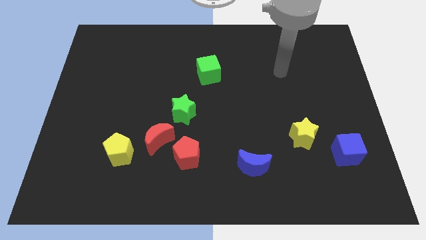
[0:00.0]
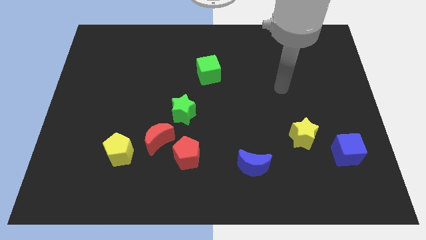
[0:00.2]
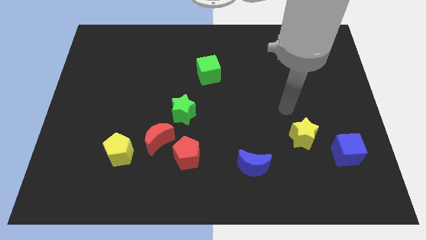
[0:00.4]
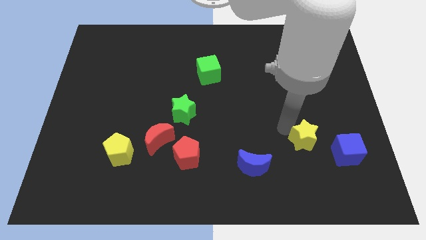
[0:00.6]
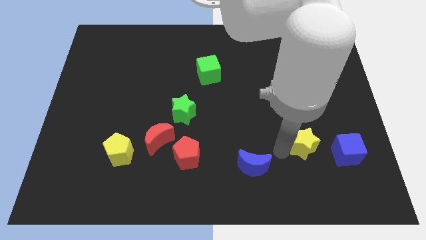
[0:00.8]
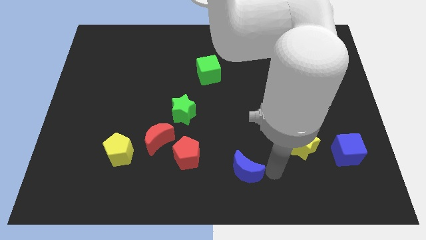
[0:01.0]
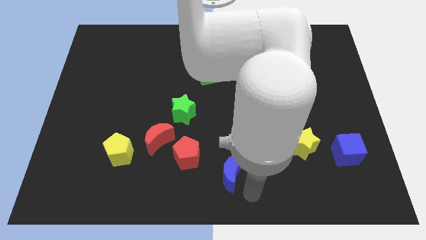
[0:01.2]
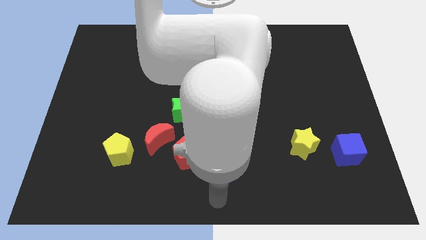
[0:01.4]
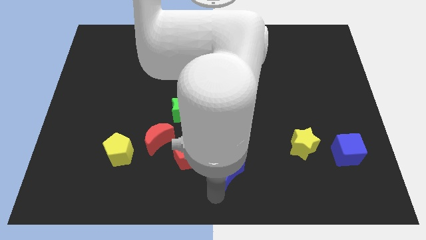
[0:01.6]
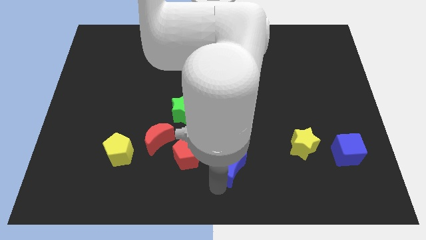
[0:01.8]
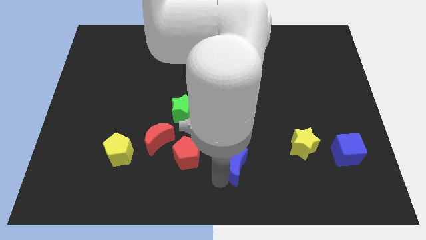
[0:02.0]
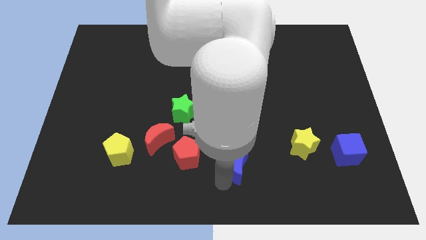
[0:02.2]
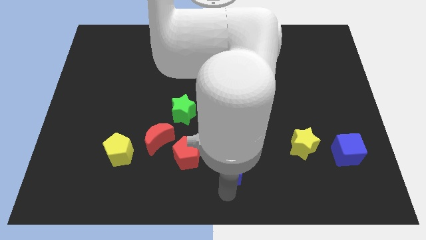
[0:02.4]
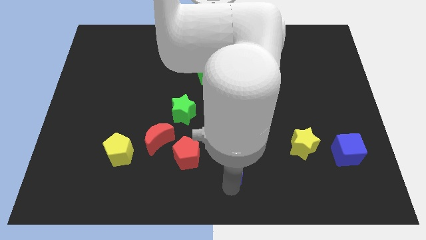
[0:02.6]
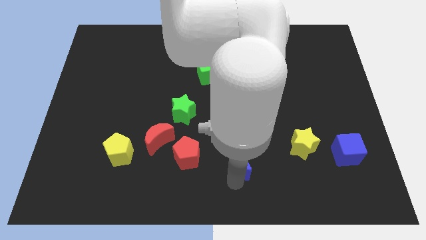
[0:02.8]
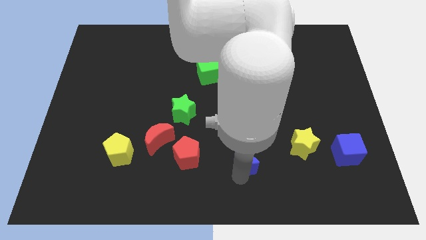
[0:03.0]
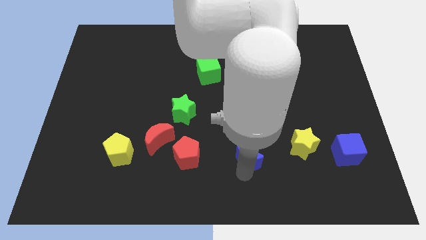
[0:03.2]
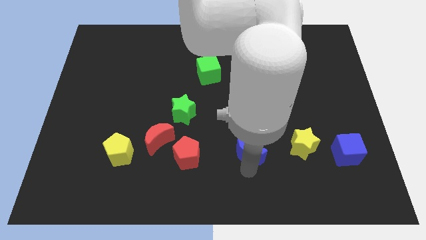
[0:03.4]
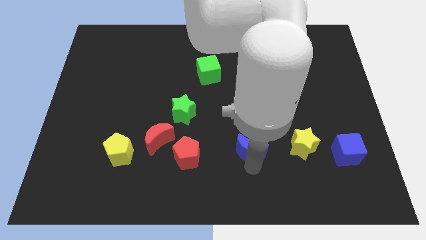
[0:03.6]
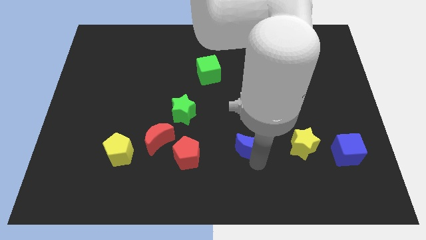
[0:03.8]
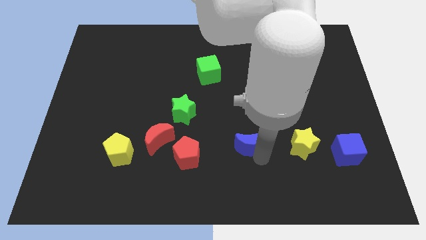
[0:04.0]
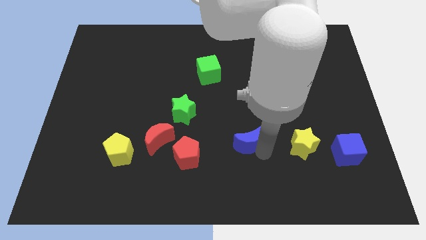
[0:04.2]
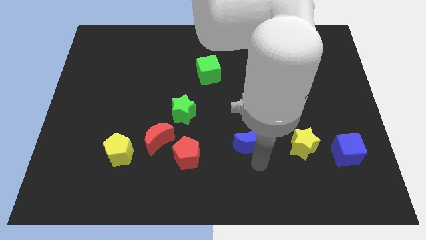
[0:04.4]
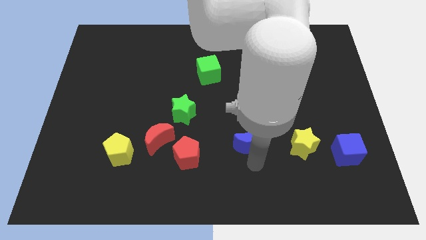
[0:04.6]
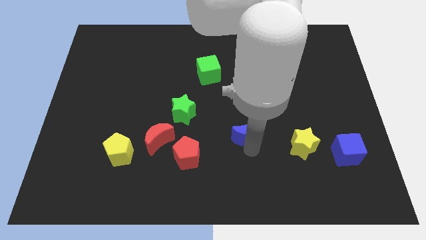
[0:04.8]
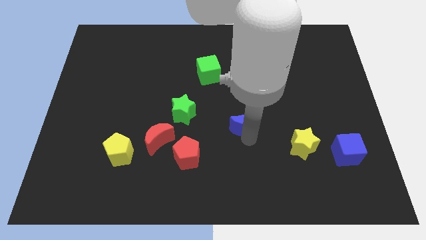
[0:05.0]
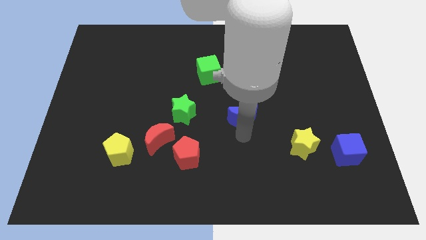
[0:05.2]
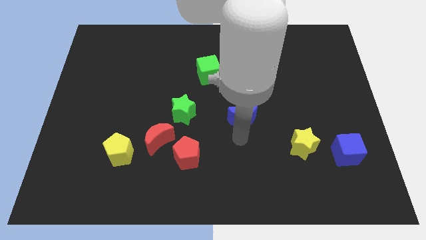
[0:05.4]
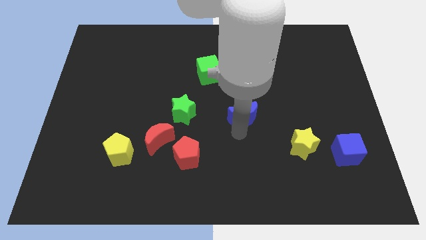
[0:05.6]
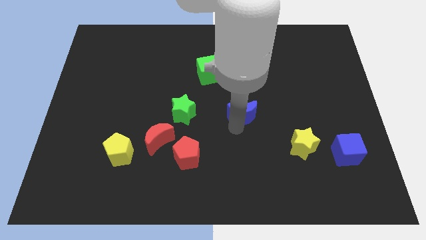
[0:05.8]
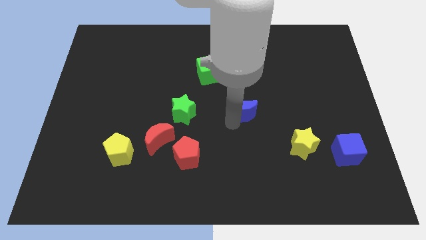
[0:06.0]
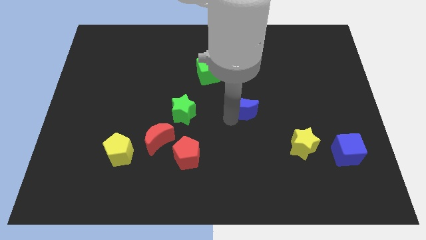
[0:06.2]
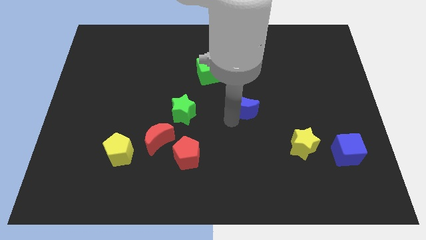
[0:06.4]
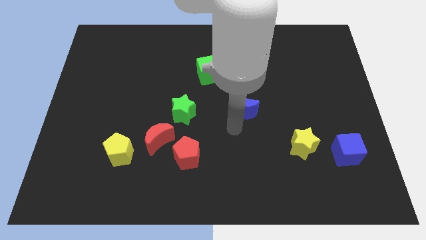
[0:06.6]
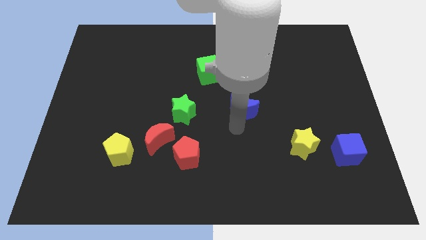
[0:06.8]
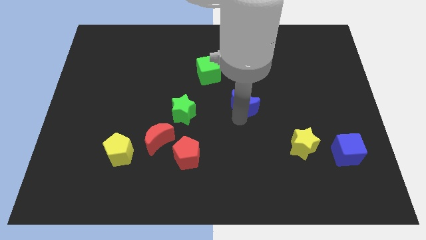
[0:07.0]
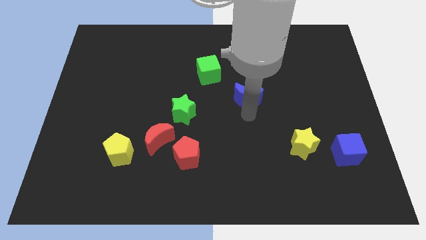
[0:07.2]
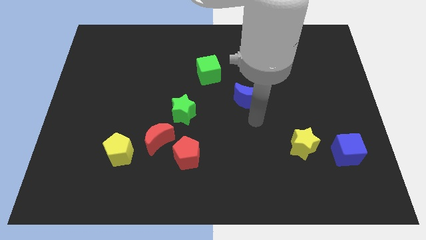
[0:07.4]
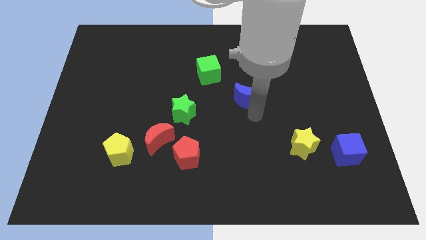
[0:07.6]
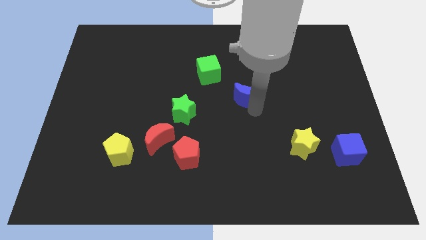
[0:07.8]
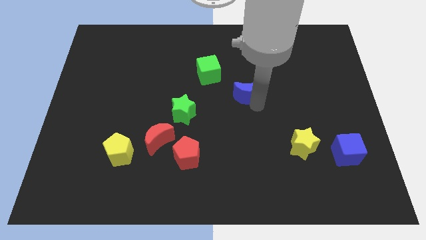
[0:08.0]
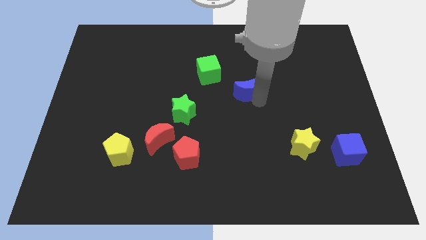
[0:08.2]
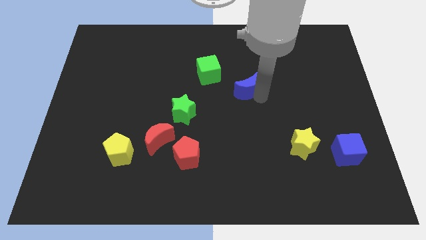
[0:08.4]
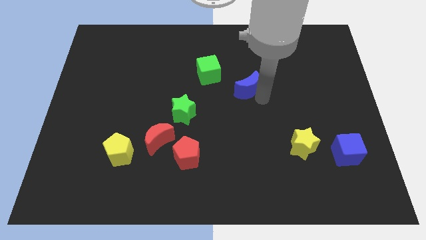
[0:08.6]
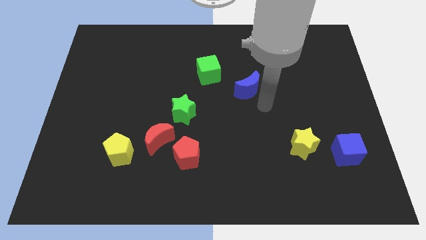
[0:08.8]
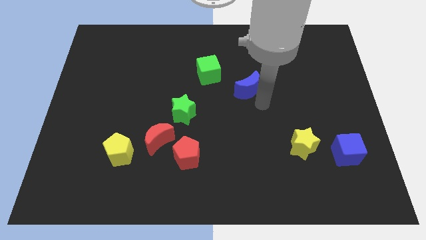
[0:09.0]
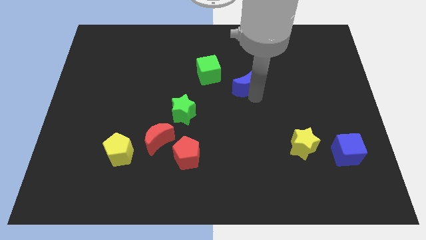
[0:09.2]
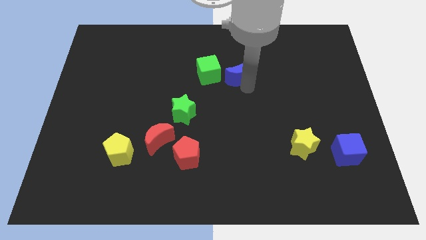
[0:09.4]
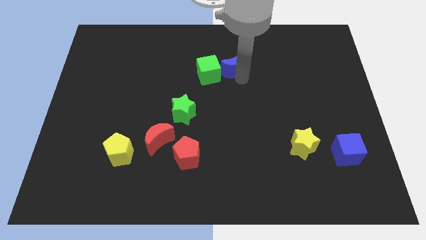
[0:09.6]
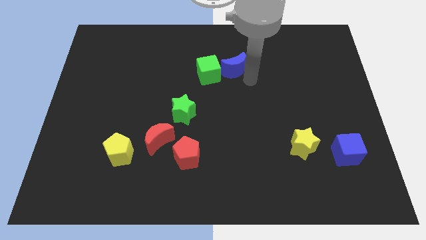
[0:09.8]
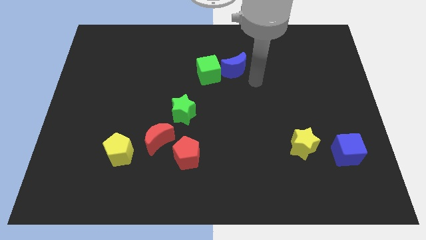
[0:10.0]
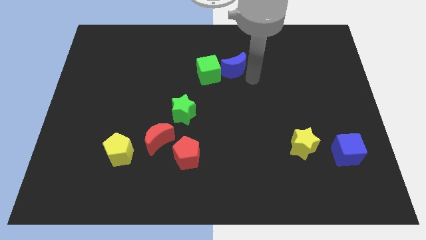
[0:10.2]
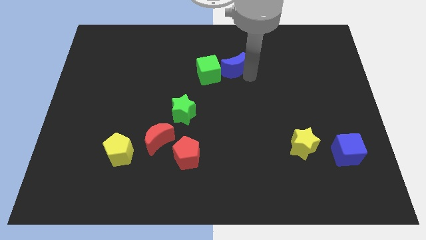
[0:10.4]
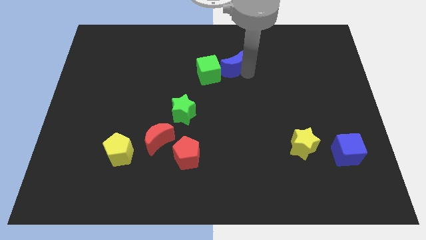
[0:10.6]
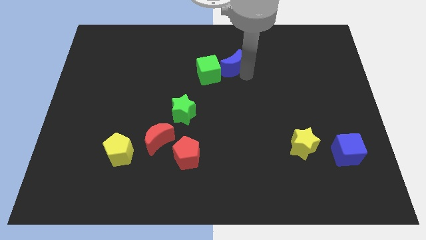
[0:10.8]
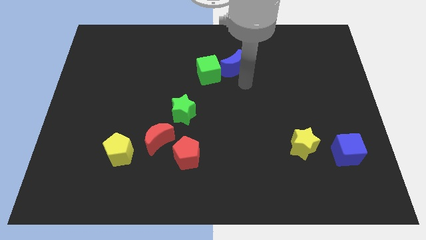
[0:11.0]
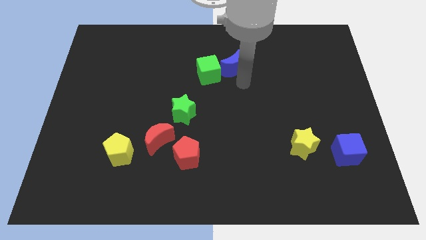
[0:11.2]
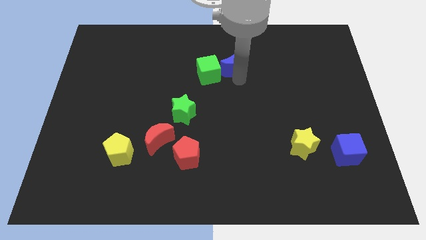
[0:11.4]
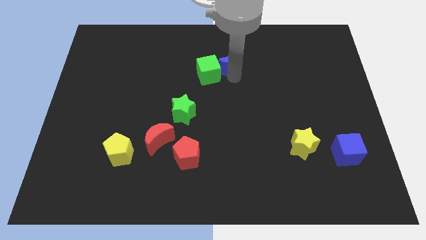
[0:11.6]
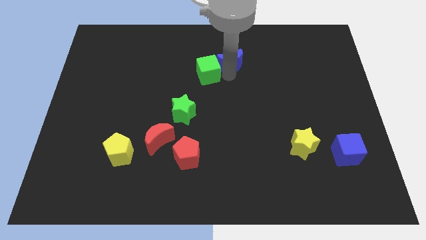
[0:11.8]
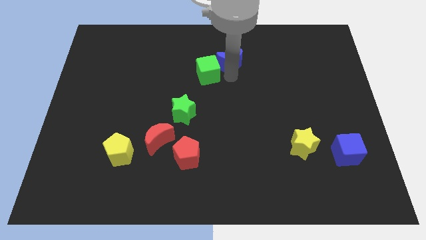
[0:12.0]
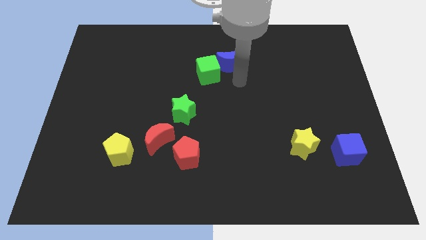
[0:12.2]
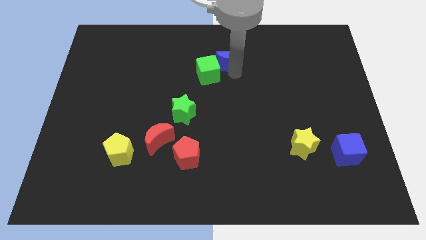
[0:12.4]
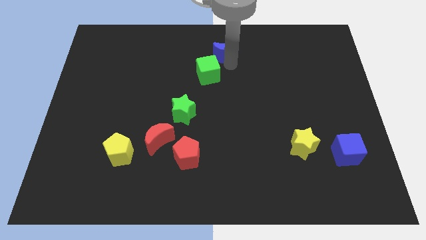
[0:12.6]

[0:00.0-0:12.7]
push the blue moon to the top

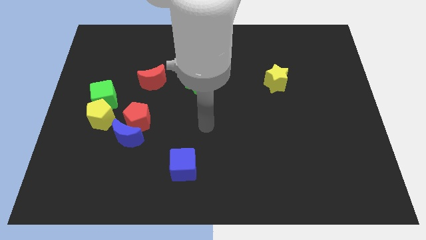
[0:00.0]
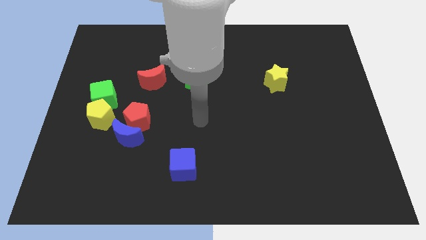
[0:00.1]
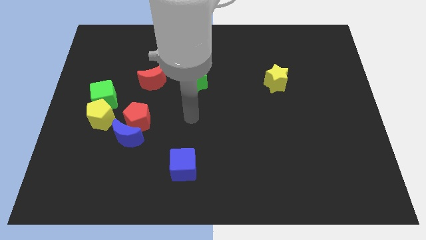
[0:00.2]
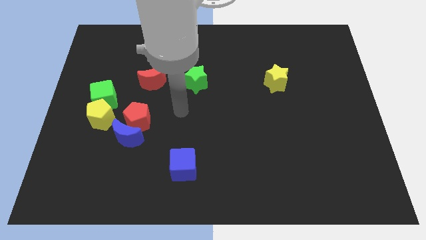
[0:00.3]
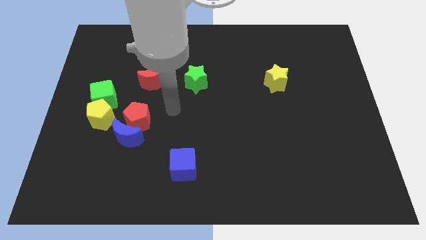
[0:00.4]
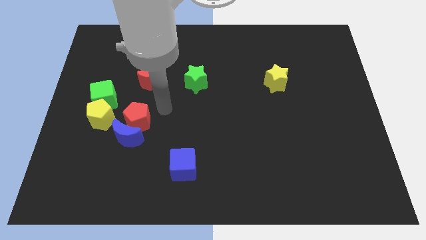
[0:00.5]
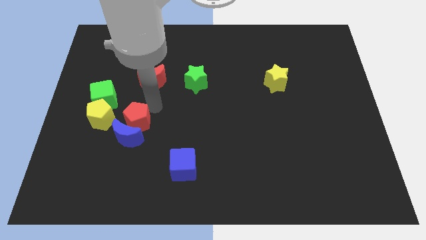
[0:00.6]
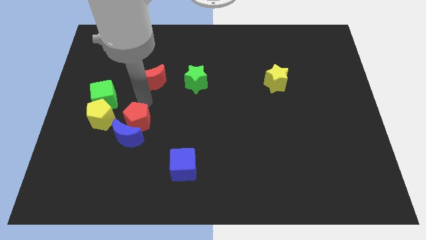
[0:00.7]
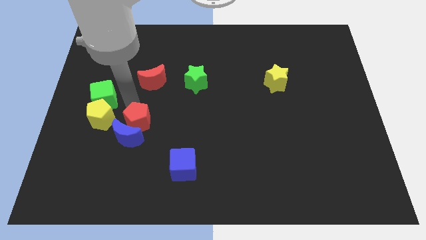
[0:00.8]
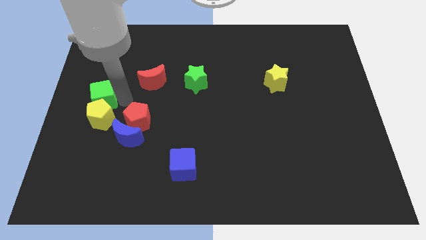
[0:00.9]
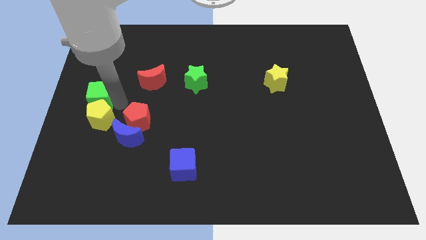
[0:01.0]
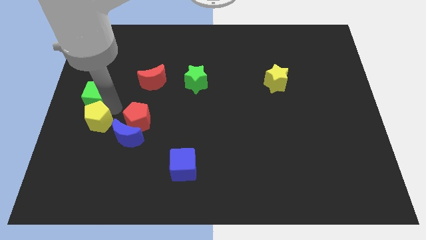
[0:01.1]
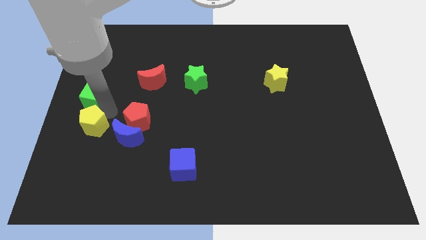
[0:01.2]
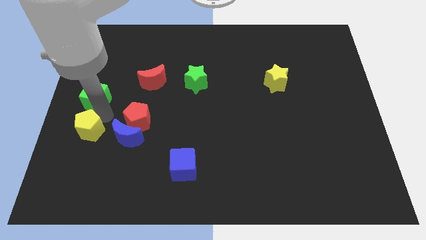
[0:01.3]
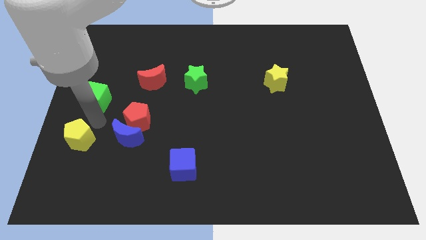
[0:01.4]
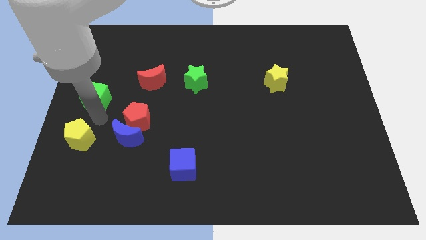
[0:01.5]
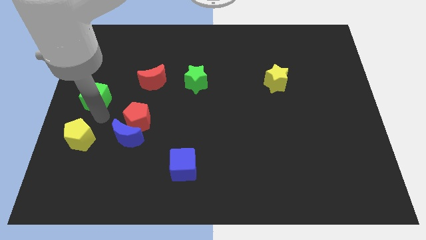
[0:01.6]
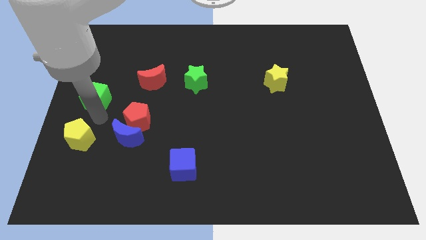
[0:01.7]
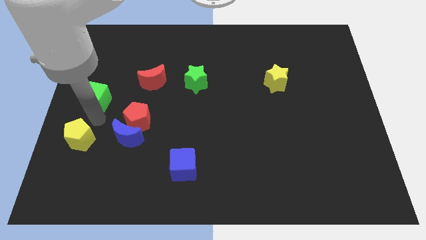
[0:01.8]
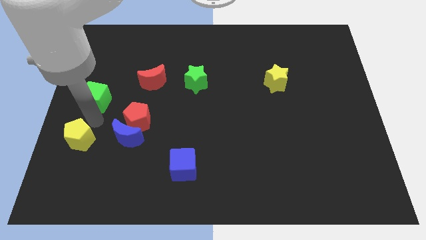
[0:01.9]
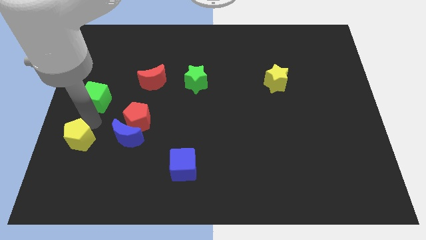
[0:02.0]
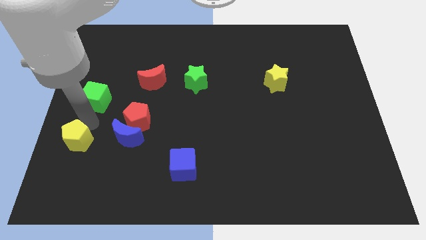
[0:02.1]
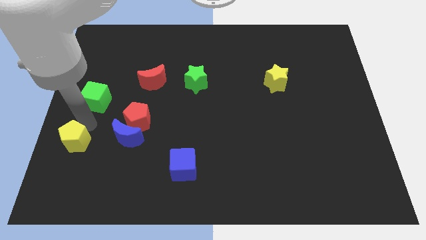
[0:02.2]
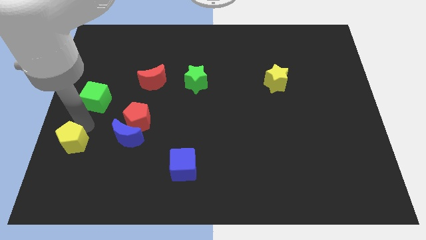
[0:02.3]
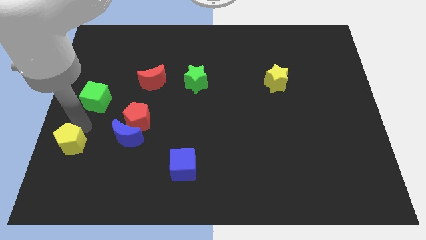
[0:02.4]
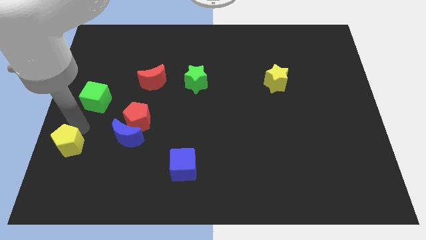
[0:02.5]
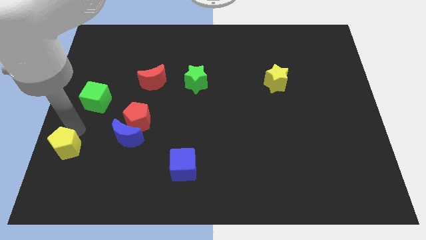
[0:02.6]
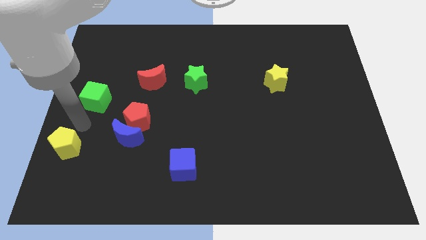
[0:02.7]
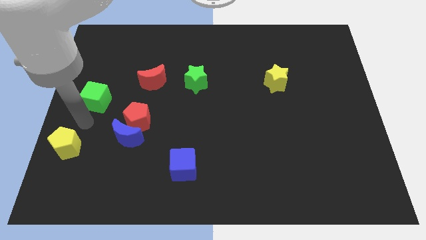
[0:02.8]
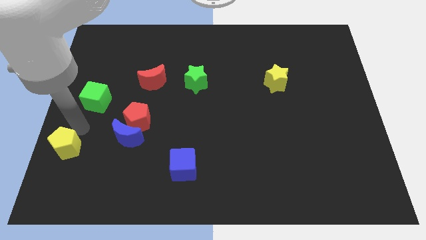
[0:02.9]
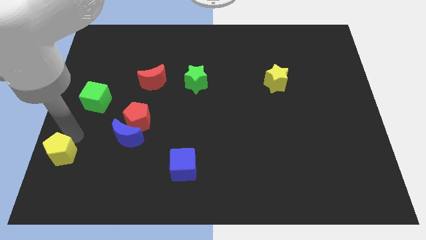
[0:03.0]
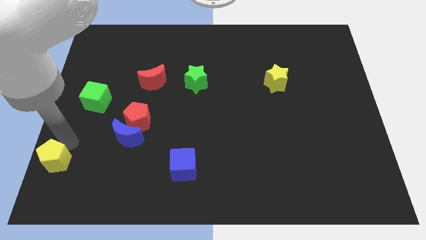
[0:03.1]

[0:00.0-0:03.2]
move the yellow pentagon to the bottom left
